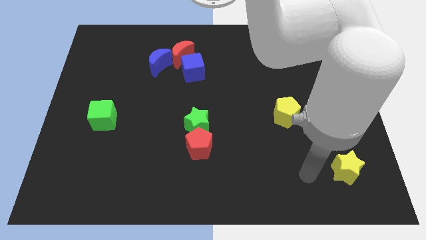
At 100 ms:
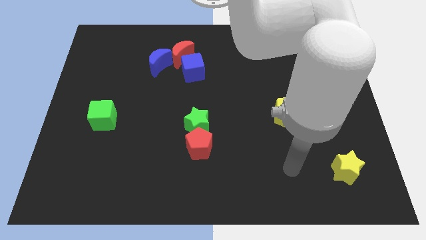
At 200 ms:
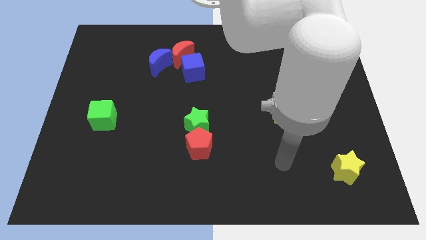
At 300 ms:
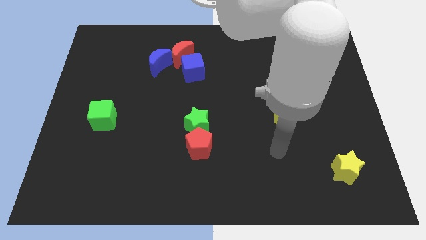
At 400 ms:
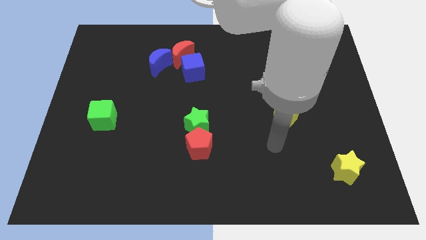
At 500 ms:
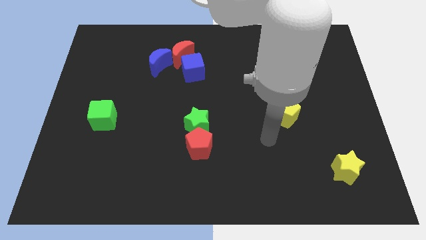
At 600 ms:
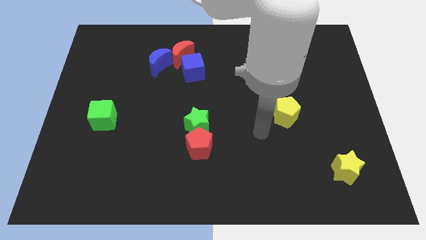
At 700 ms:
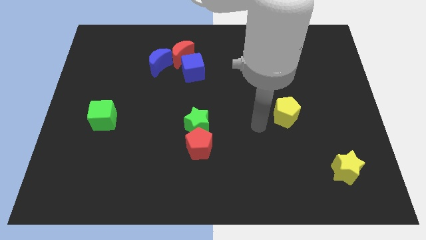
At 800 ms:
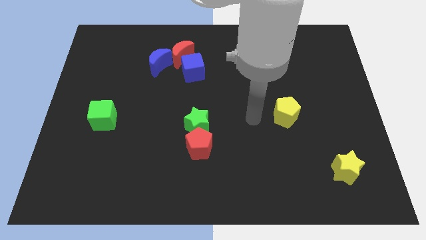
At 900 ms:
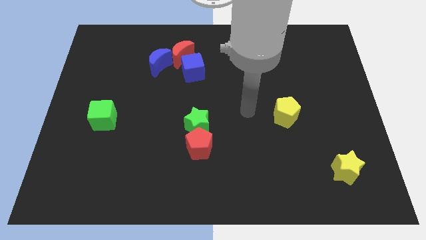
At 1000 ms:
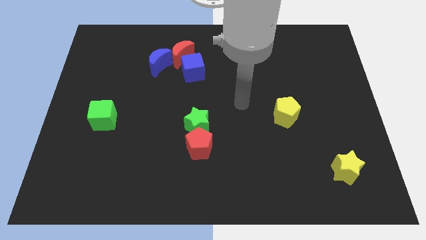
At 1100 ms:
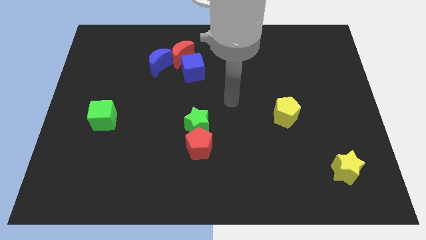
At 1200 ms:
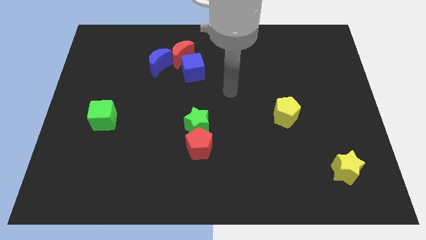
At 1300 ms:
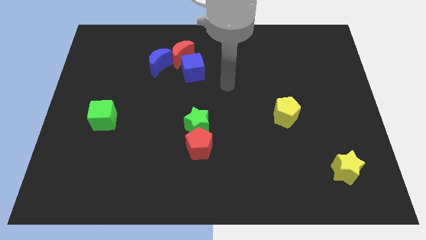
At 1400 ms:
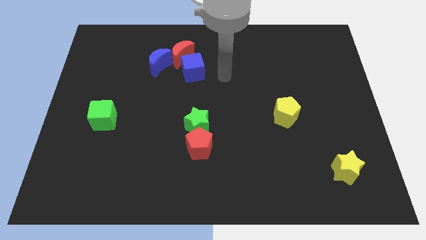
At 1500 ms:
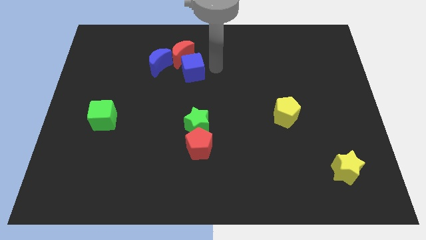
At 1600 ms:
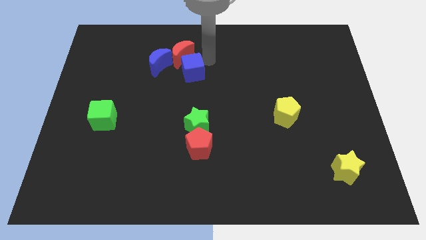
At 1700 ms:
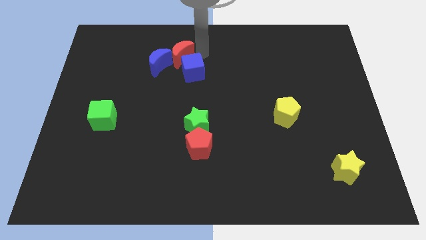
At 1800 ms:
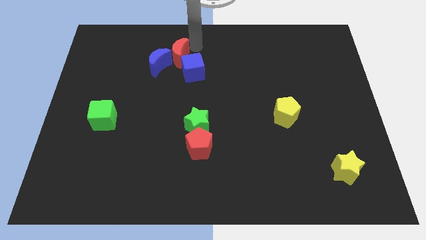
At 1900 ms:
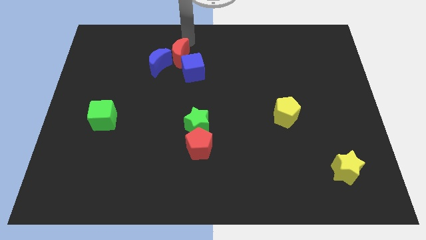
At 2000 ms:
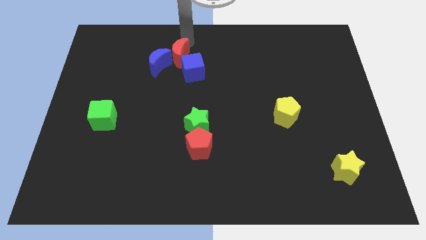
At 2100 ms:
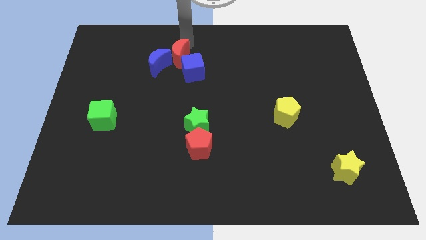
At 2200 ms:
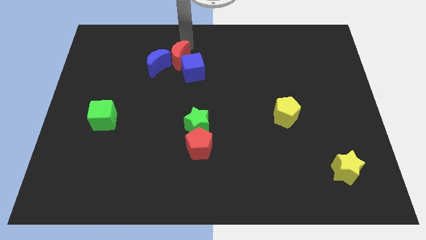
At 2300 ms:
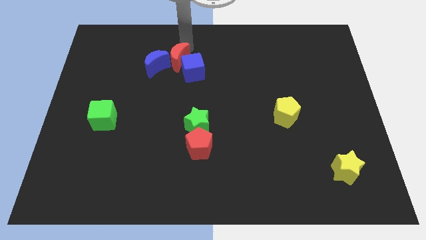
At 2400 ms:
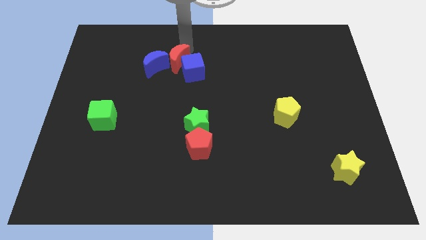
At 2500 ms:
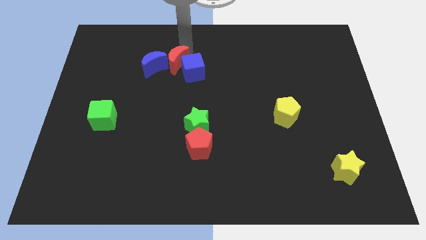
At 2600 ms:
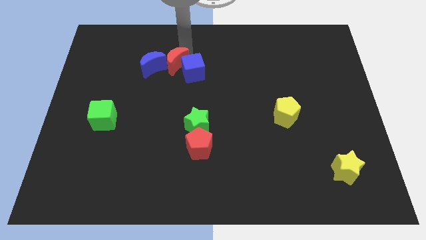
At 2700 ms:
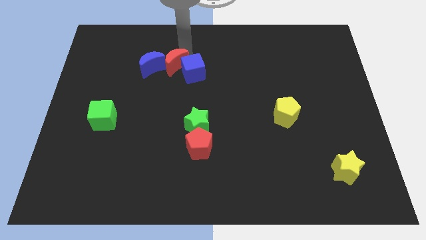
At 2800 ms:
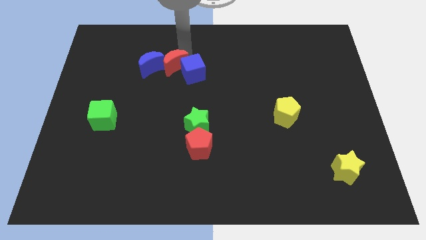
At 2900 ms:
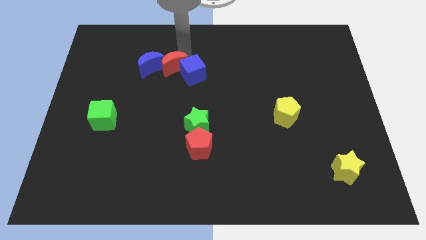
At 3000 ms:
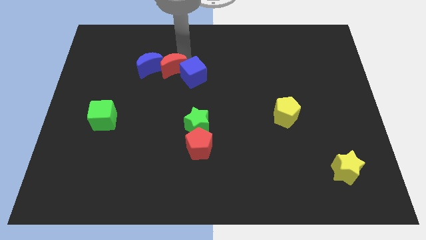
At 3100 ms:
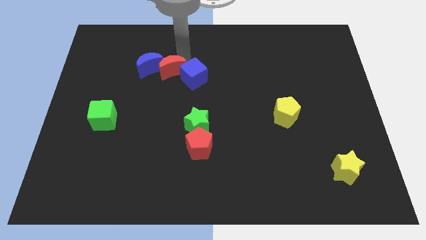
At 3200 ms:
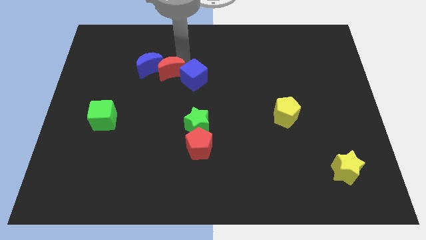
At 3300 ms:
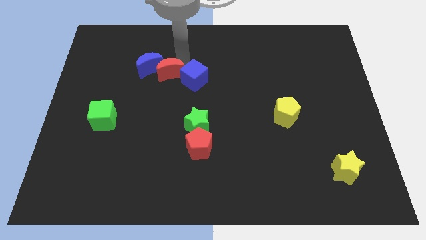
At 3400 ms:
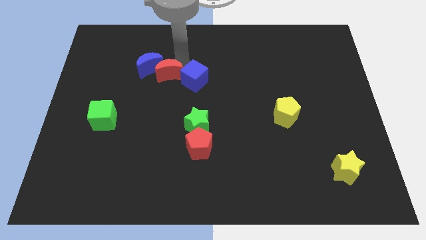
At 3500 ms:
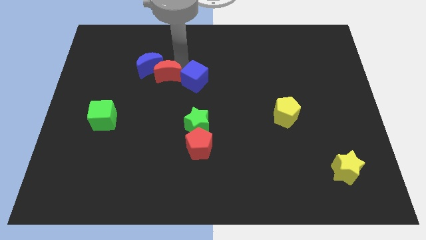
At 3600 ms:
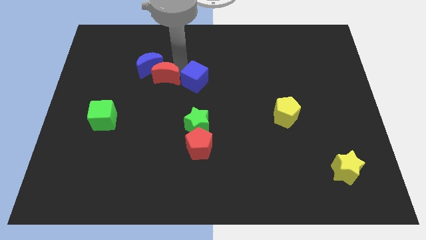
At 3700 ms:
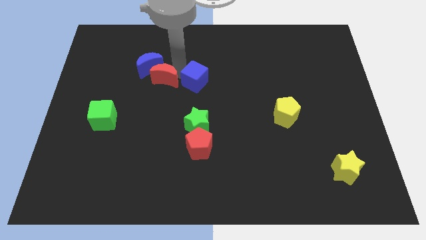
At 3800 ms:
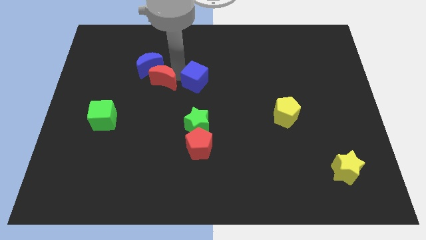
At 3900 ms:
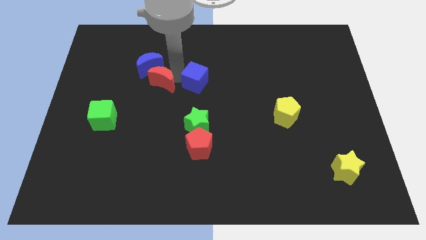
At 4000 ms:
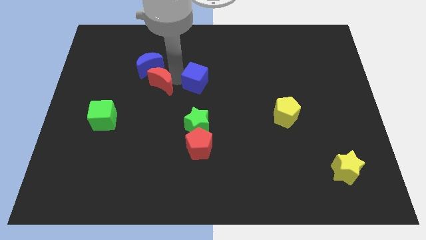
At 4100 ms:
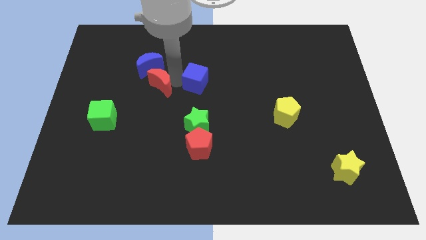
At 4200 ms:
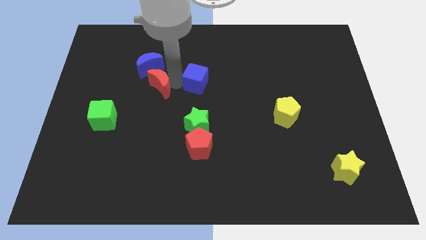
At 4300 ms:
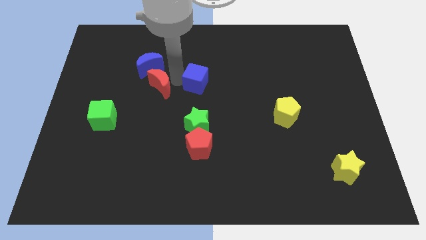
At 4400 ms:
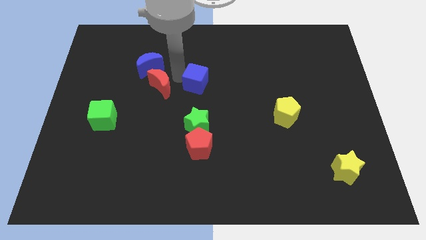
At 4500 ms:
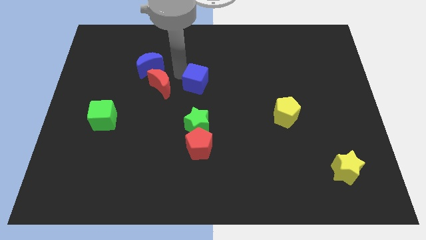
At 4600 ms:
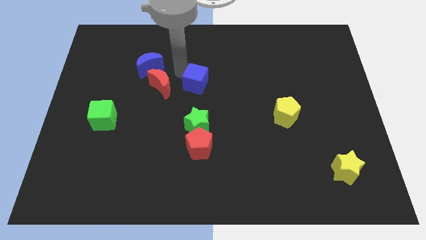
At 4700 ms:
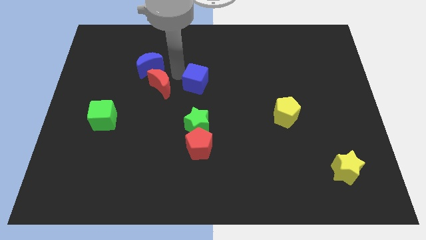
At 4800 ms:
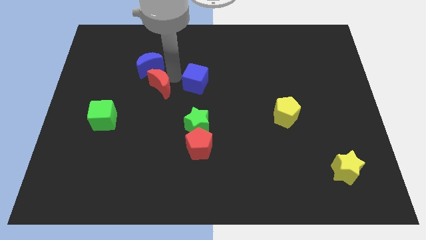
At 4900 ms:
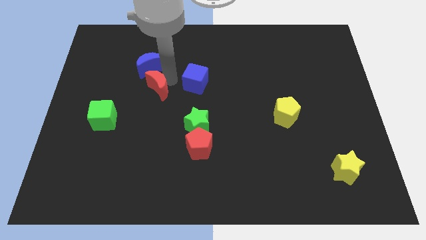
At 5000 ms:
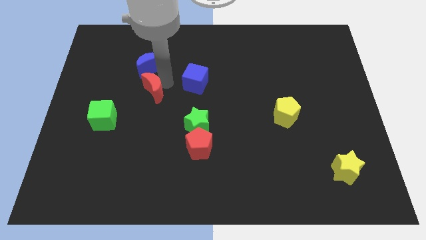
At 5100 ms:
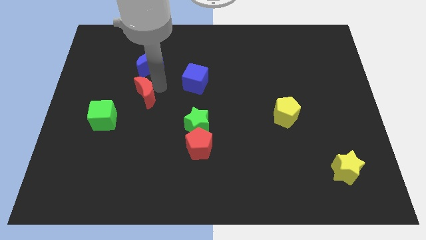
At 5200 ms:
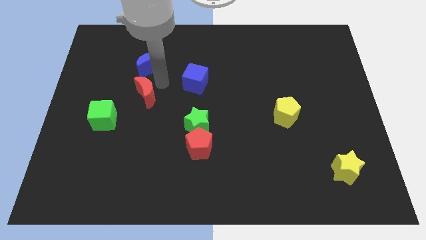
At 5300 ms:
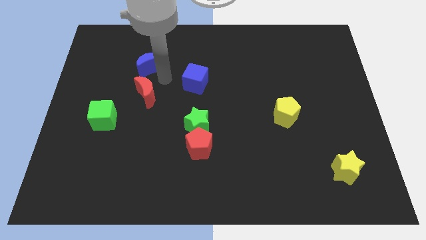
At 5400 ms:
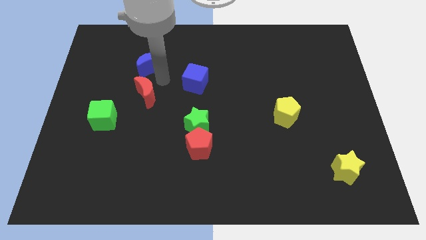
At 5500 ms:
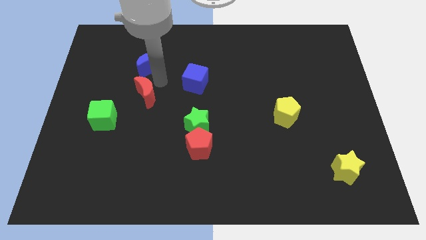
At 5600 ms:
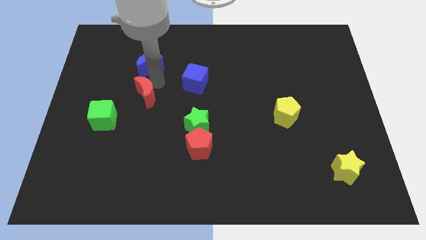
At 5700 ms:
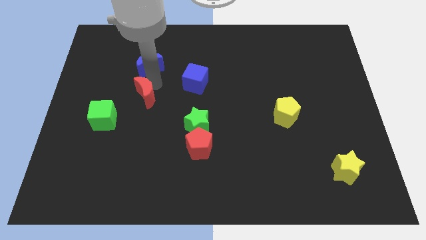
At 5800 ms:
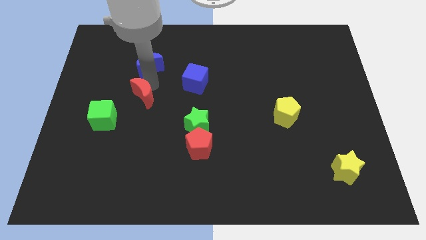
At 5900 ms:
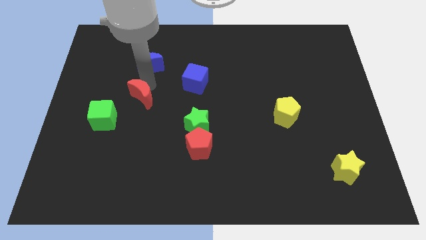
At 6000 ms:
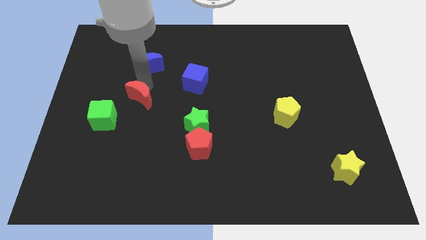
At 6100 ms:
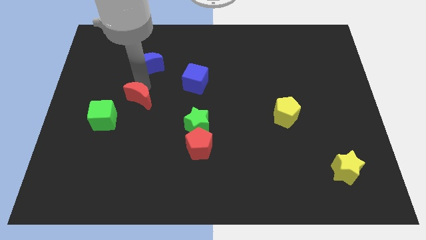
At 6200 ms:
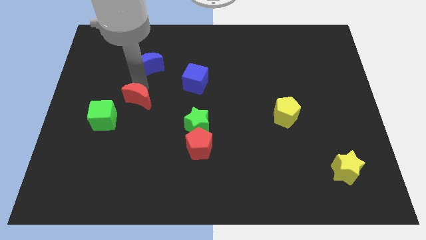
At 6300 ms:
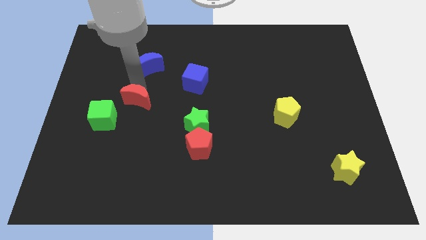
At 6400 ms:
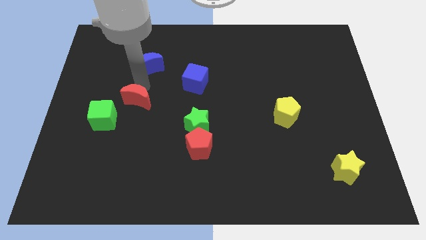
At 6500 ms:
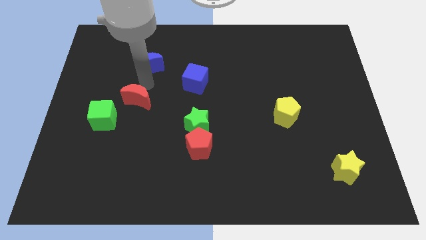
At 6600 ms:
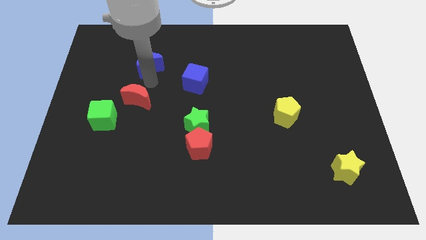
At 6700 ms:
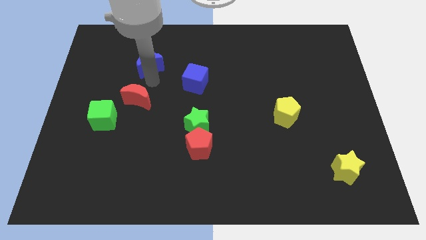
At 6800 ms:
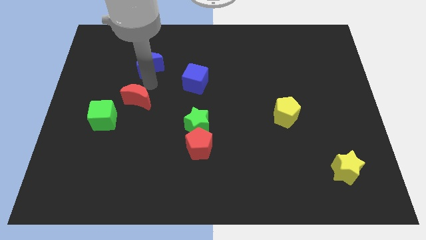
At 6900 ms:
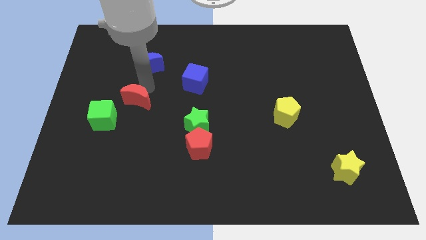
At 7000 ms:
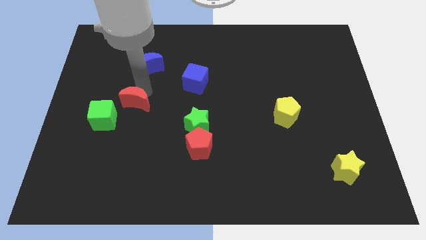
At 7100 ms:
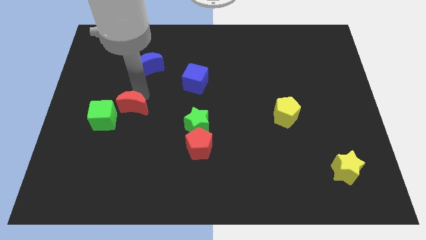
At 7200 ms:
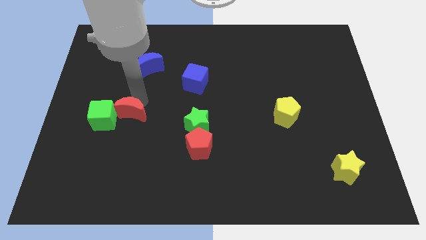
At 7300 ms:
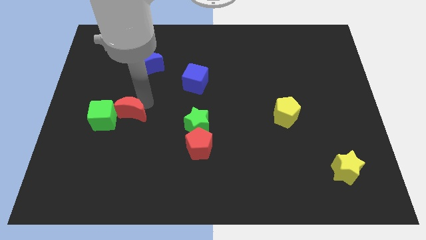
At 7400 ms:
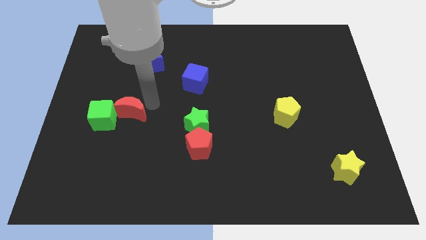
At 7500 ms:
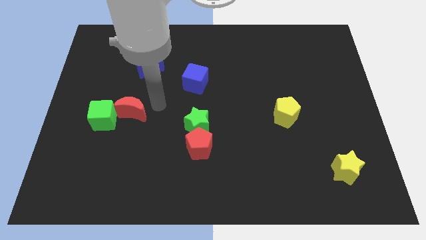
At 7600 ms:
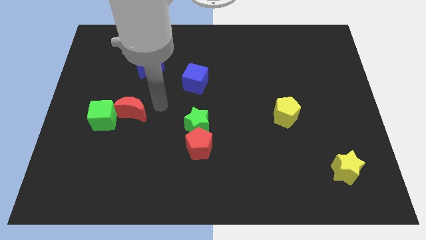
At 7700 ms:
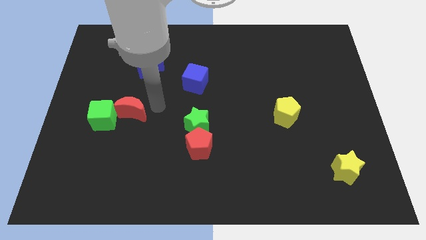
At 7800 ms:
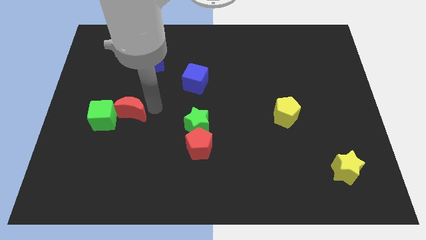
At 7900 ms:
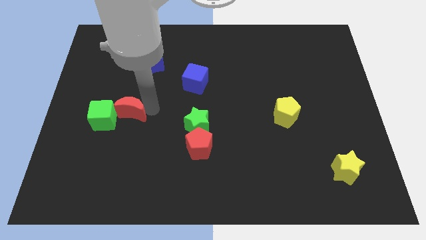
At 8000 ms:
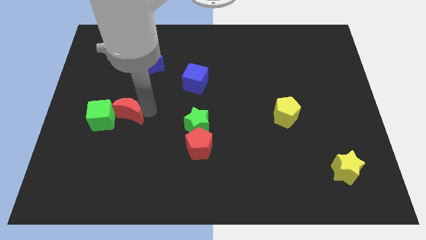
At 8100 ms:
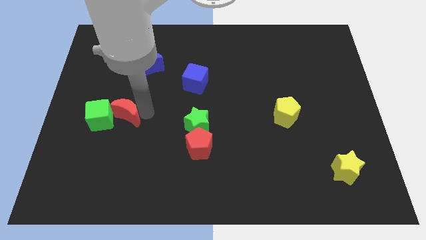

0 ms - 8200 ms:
put the red moon towards the green cube
